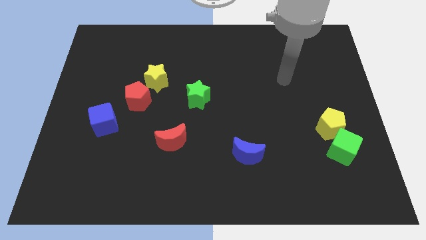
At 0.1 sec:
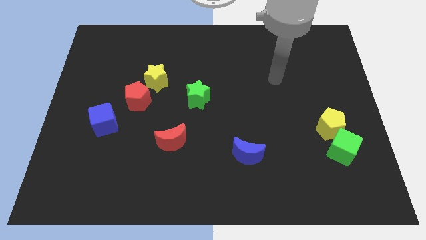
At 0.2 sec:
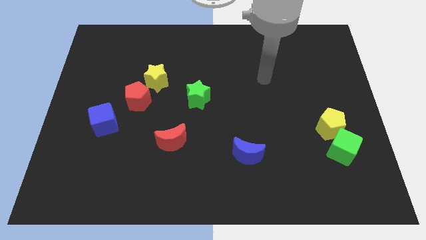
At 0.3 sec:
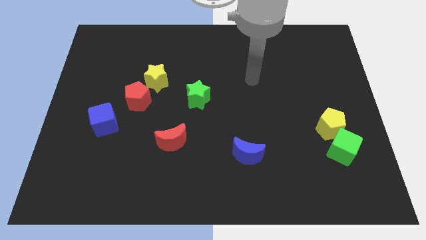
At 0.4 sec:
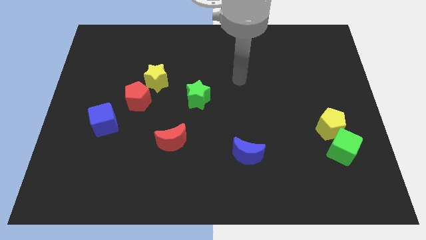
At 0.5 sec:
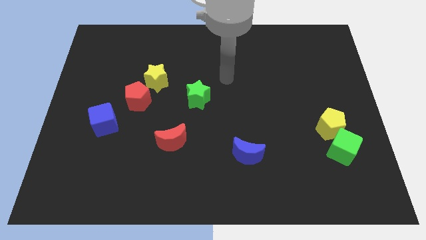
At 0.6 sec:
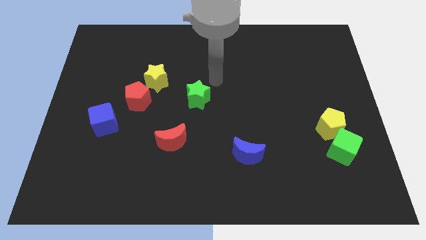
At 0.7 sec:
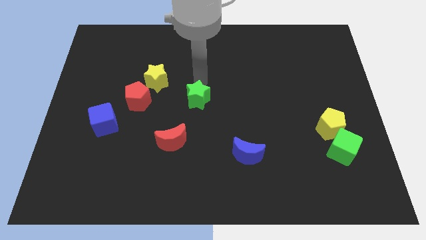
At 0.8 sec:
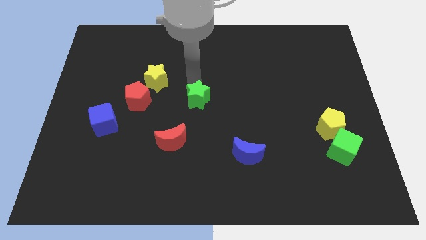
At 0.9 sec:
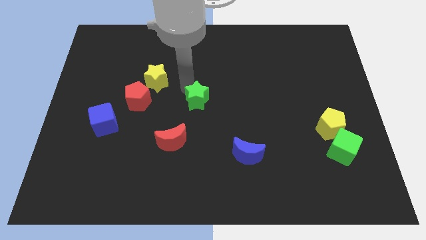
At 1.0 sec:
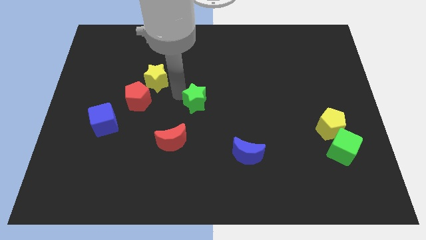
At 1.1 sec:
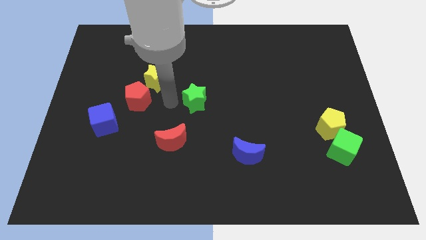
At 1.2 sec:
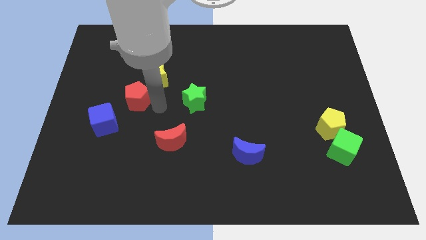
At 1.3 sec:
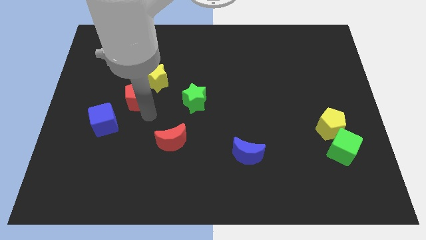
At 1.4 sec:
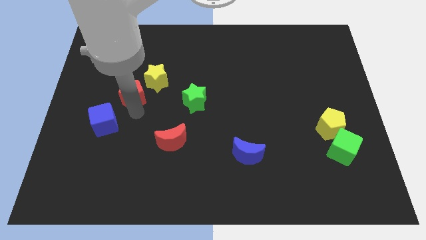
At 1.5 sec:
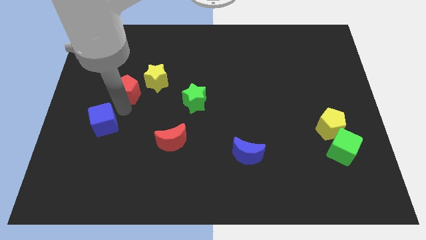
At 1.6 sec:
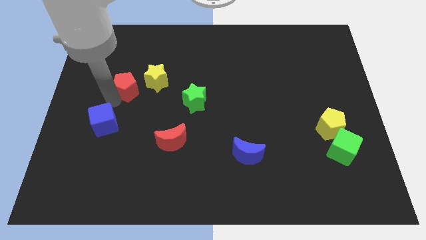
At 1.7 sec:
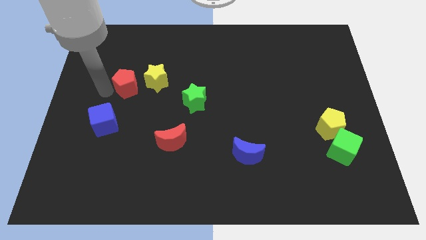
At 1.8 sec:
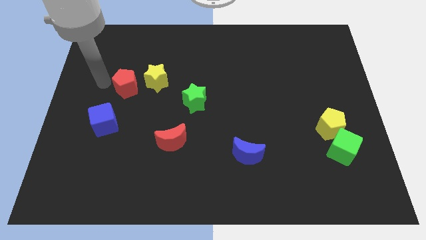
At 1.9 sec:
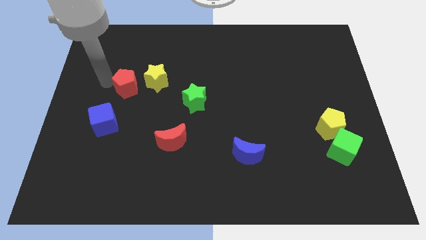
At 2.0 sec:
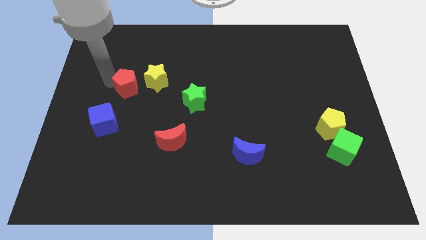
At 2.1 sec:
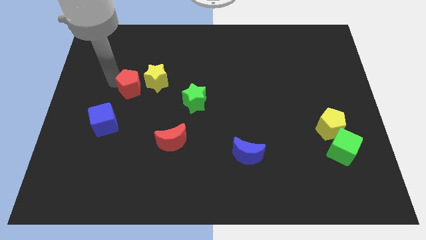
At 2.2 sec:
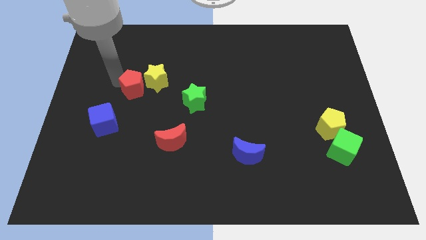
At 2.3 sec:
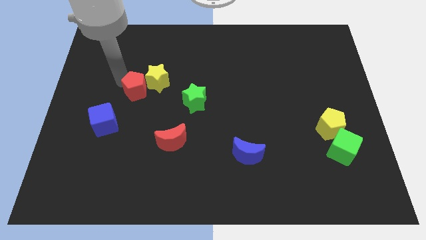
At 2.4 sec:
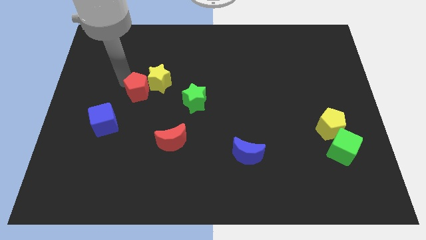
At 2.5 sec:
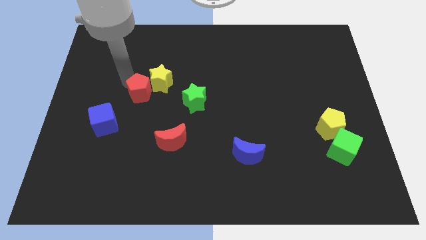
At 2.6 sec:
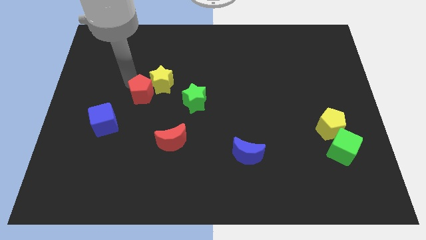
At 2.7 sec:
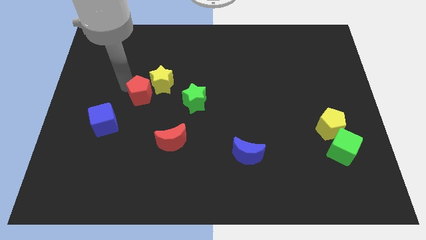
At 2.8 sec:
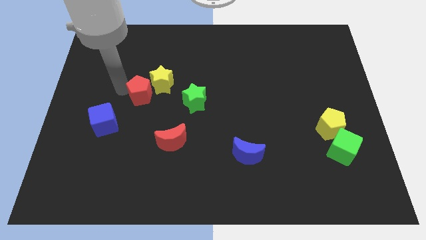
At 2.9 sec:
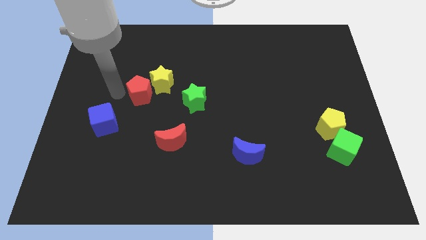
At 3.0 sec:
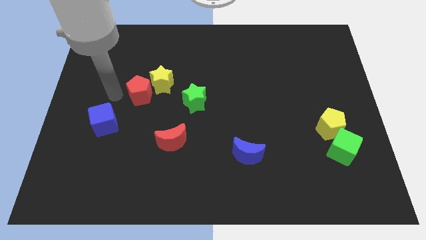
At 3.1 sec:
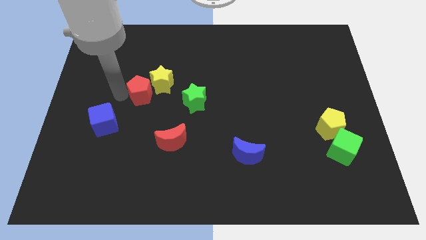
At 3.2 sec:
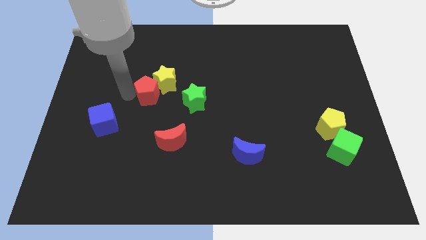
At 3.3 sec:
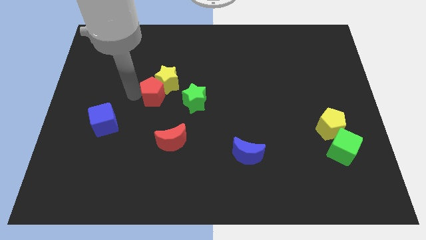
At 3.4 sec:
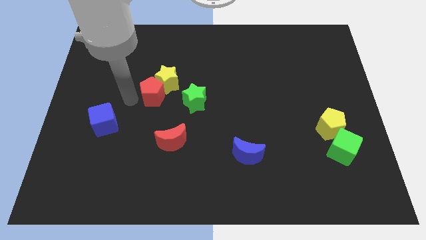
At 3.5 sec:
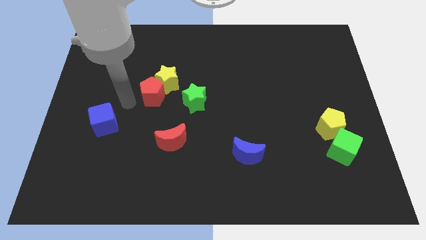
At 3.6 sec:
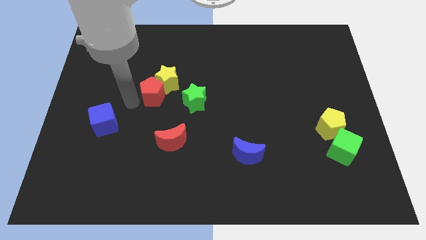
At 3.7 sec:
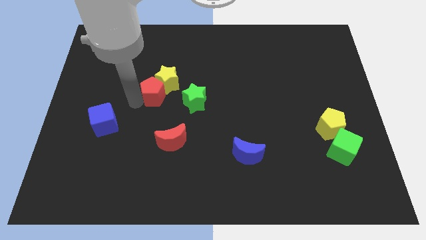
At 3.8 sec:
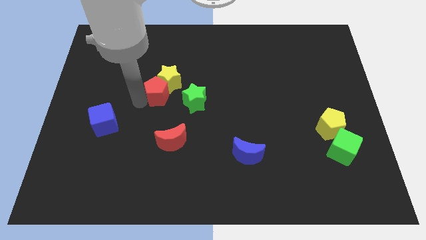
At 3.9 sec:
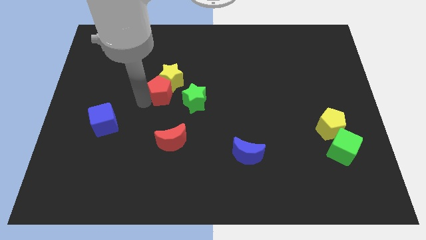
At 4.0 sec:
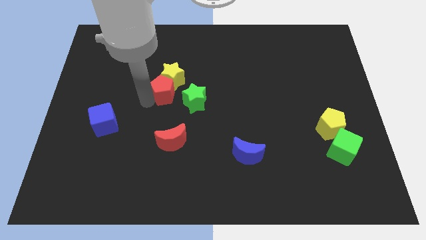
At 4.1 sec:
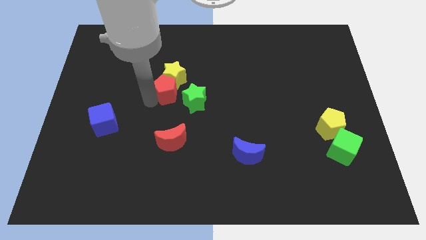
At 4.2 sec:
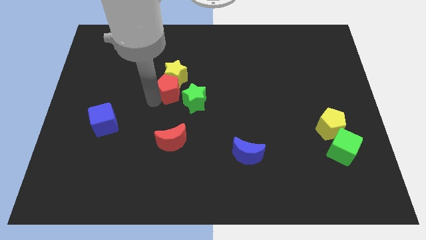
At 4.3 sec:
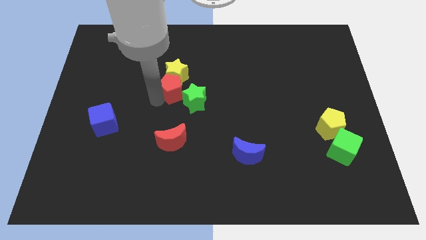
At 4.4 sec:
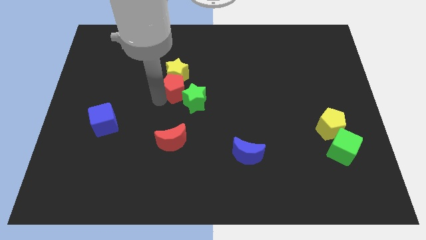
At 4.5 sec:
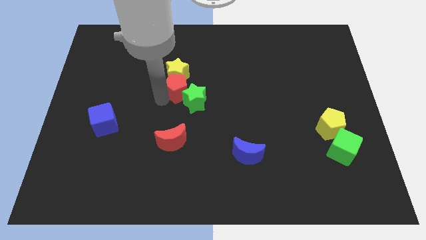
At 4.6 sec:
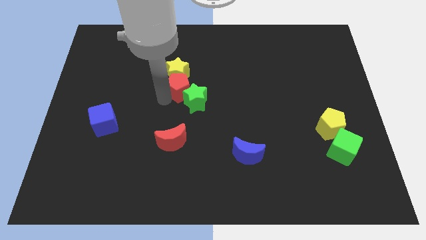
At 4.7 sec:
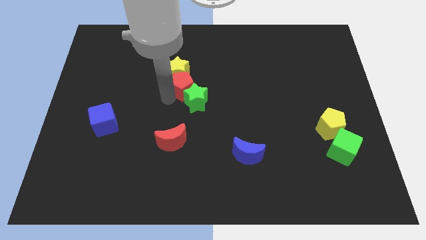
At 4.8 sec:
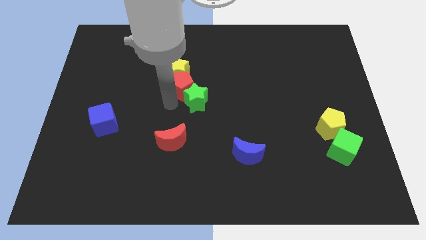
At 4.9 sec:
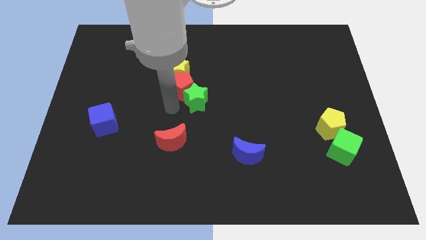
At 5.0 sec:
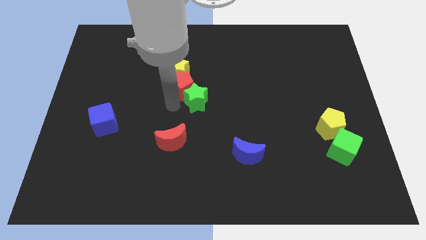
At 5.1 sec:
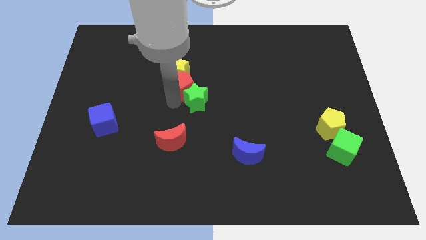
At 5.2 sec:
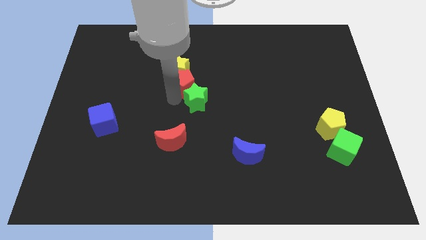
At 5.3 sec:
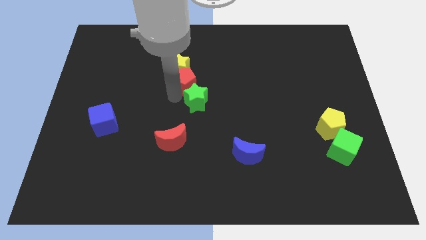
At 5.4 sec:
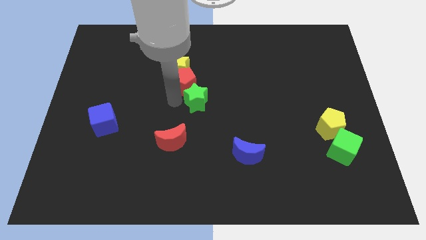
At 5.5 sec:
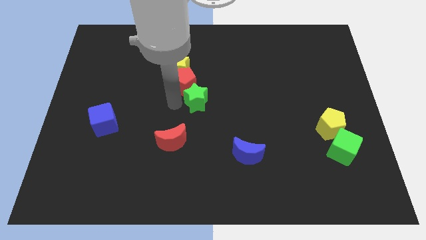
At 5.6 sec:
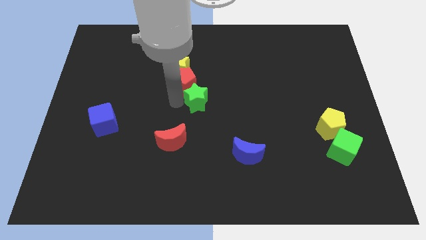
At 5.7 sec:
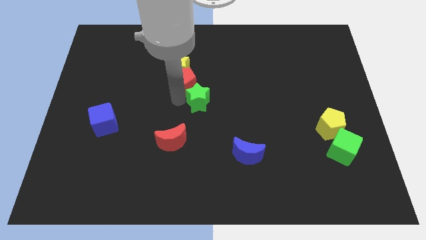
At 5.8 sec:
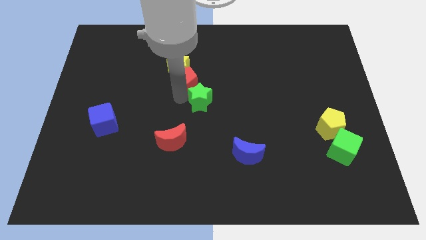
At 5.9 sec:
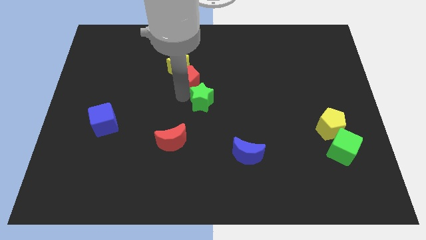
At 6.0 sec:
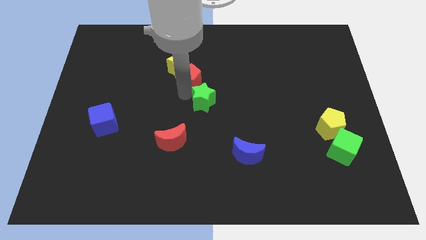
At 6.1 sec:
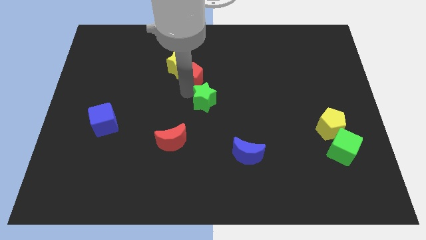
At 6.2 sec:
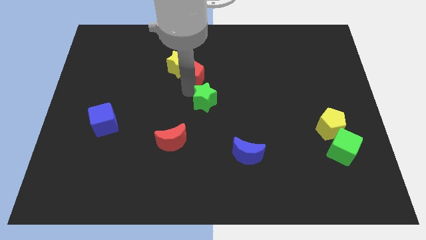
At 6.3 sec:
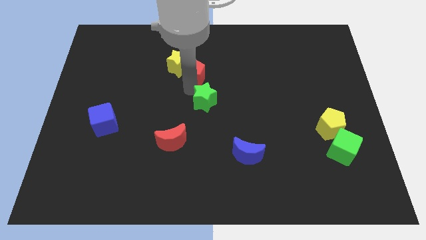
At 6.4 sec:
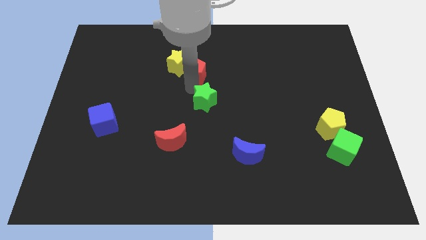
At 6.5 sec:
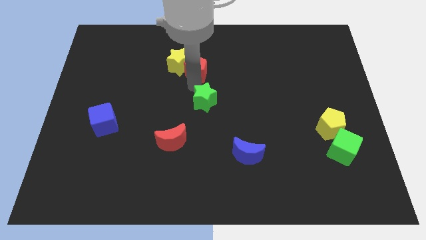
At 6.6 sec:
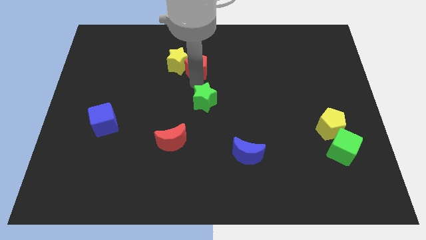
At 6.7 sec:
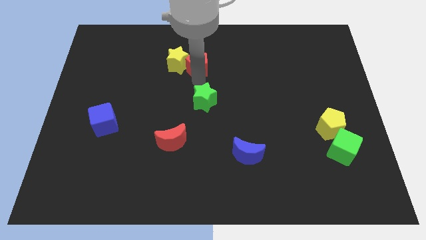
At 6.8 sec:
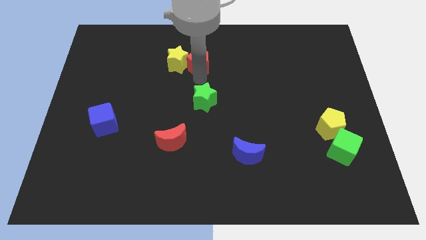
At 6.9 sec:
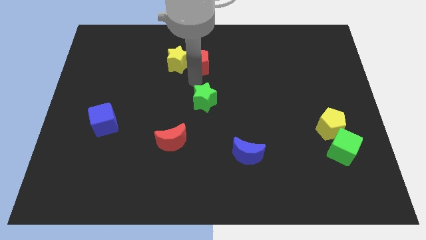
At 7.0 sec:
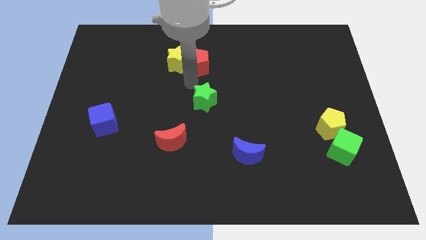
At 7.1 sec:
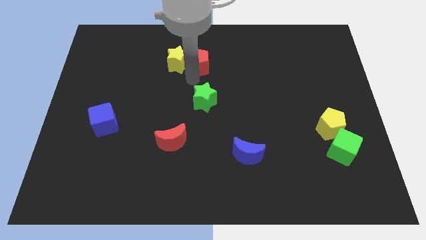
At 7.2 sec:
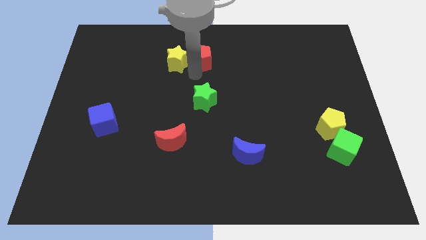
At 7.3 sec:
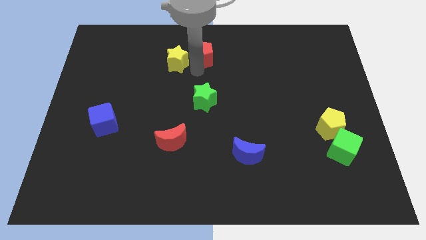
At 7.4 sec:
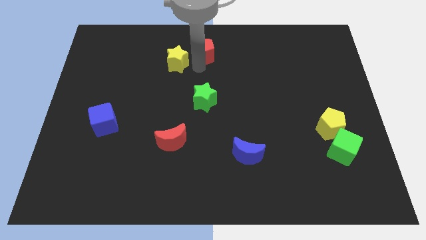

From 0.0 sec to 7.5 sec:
slide the red pentagon to the towards your base

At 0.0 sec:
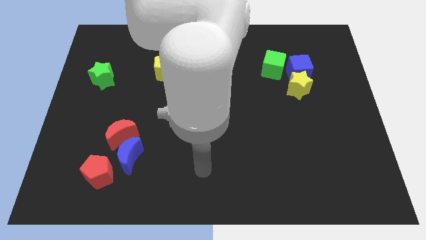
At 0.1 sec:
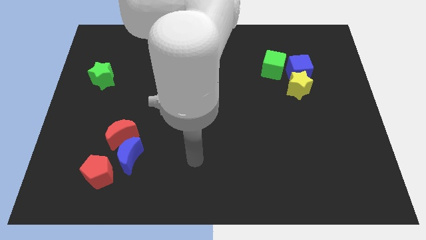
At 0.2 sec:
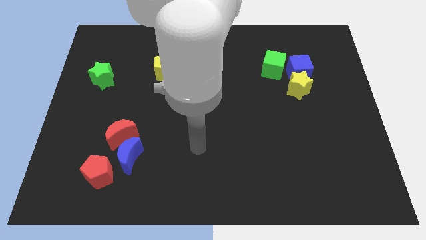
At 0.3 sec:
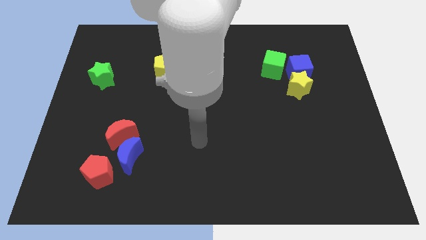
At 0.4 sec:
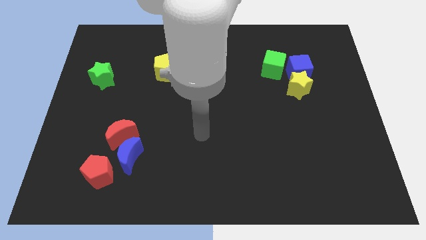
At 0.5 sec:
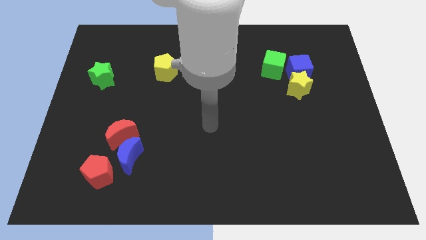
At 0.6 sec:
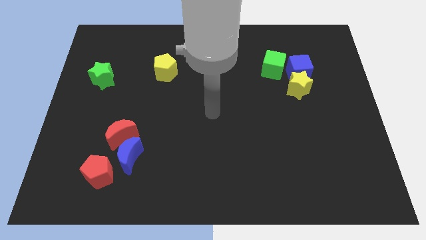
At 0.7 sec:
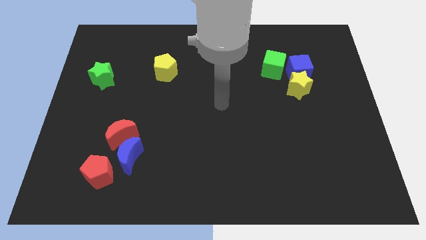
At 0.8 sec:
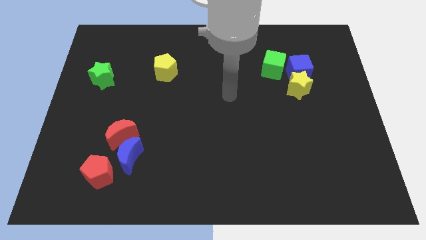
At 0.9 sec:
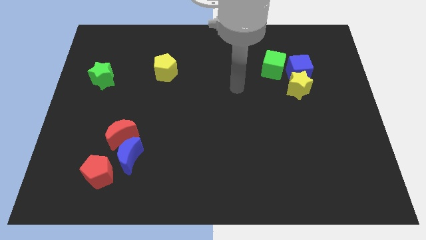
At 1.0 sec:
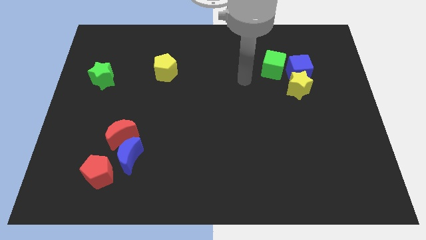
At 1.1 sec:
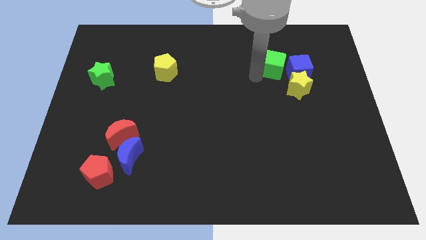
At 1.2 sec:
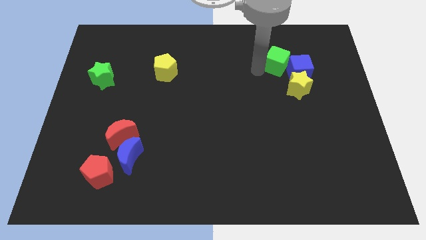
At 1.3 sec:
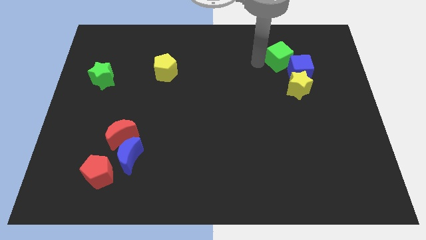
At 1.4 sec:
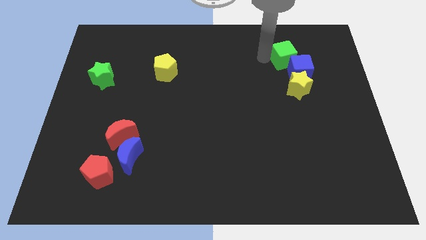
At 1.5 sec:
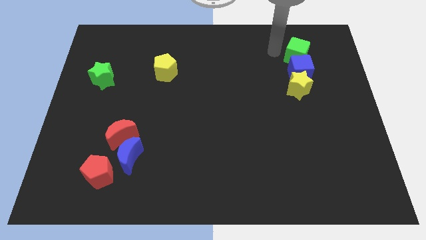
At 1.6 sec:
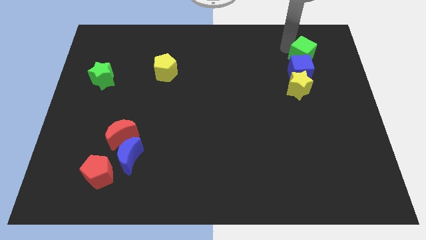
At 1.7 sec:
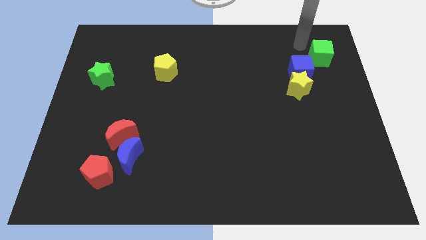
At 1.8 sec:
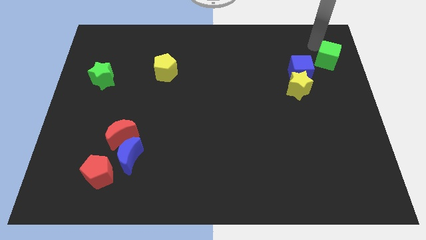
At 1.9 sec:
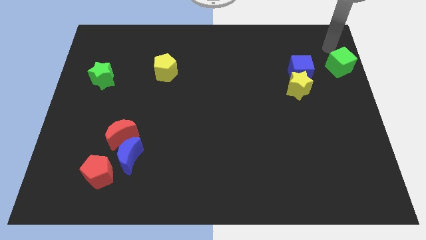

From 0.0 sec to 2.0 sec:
put the green cube to the right side of the board
